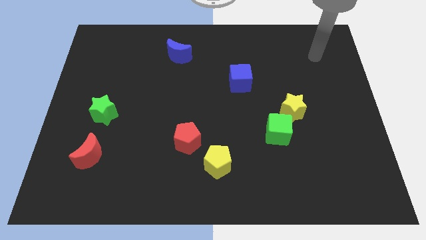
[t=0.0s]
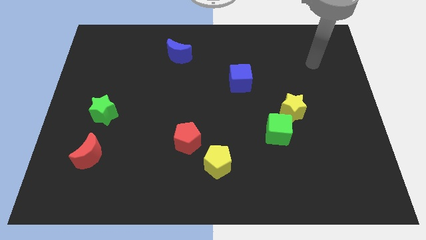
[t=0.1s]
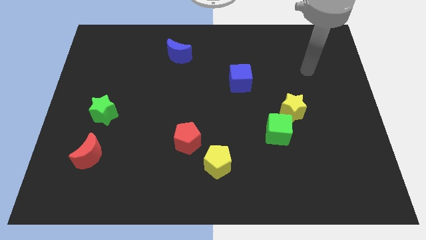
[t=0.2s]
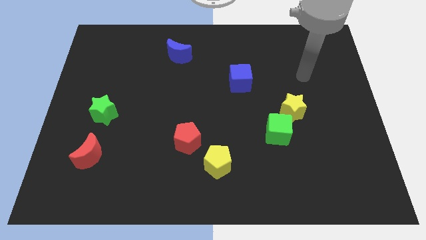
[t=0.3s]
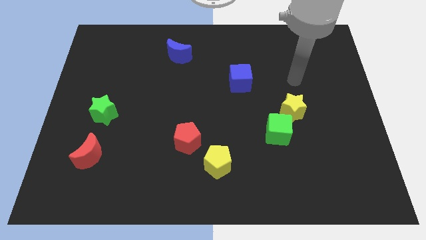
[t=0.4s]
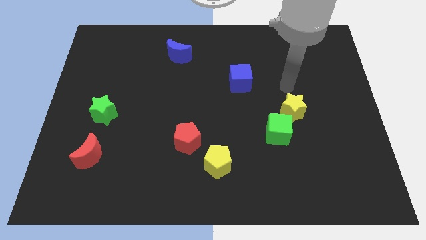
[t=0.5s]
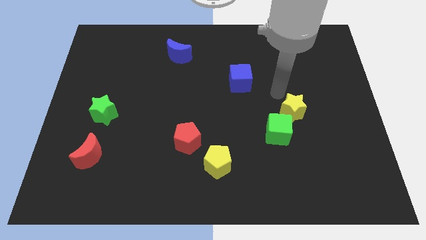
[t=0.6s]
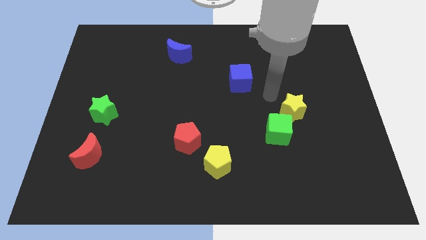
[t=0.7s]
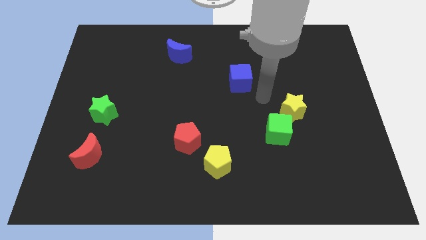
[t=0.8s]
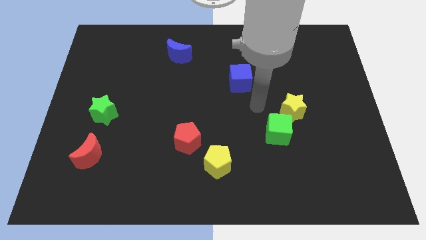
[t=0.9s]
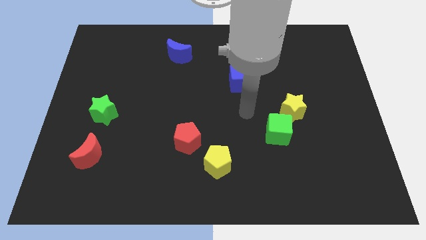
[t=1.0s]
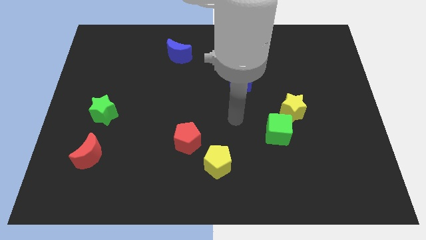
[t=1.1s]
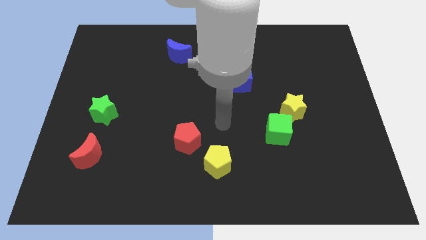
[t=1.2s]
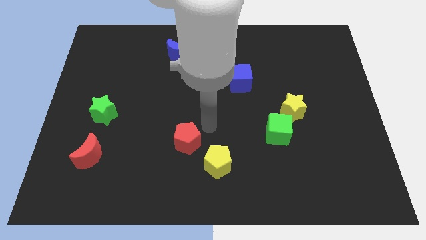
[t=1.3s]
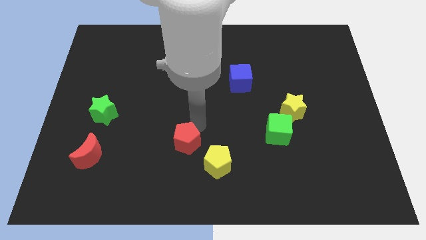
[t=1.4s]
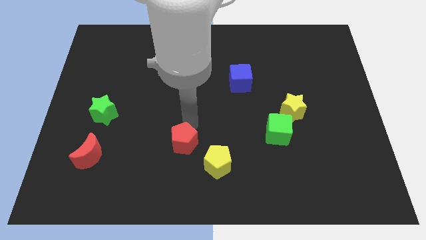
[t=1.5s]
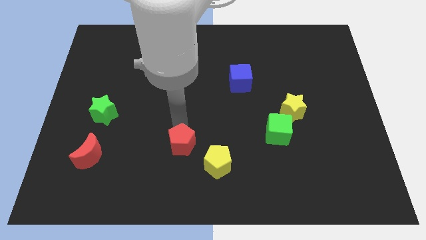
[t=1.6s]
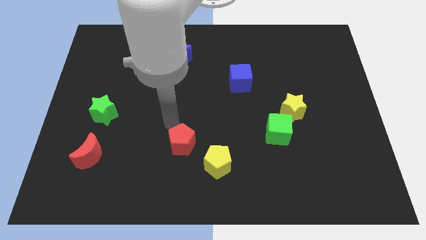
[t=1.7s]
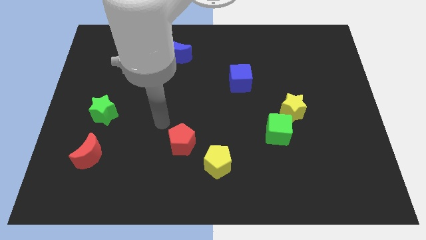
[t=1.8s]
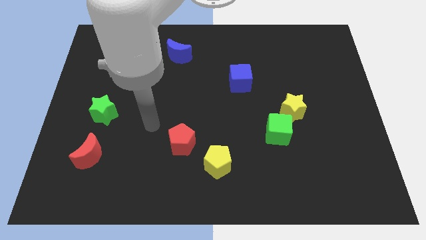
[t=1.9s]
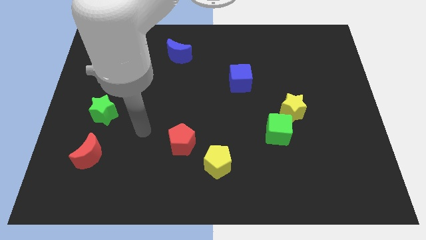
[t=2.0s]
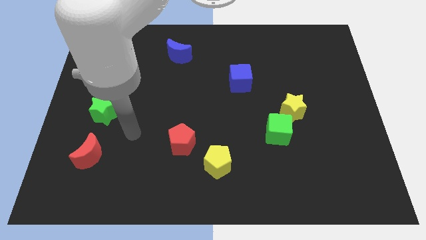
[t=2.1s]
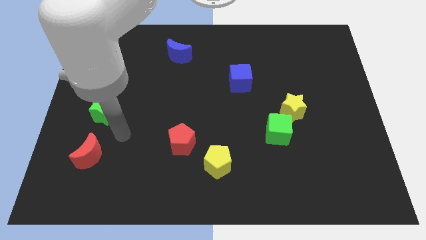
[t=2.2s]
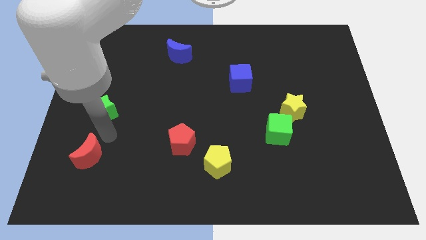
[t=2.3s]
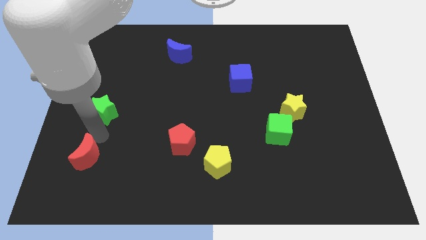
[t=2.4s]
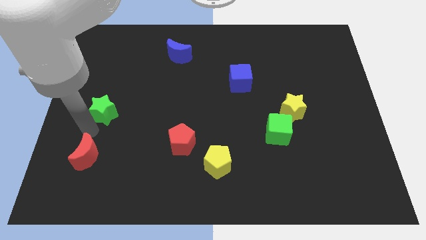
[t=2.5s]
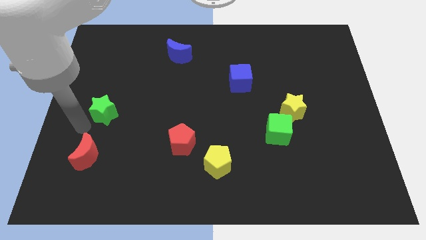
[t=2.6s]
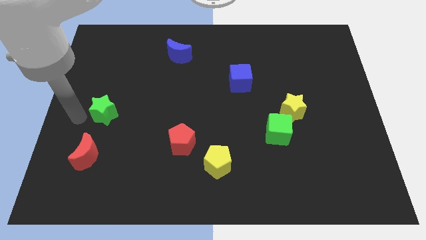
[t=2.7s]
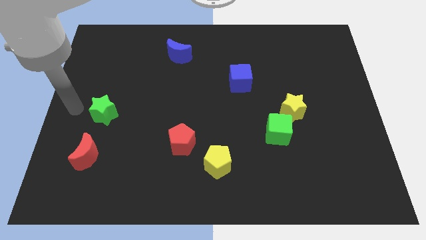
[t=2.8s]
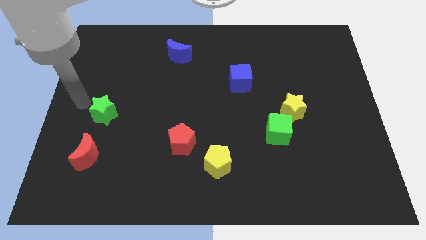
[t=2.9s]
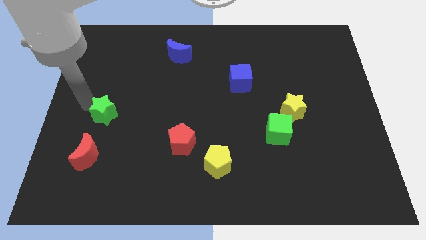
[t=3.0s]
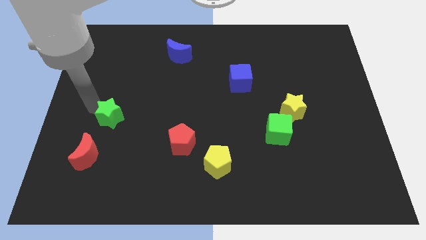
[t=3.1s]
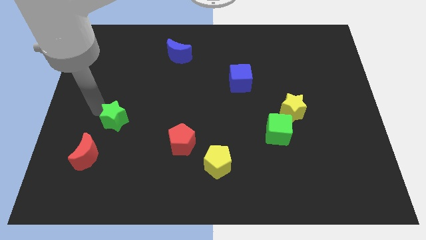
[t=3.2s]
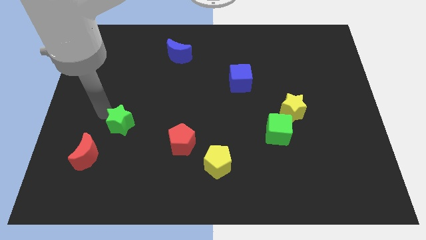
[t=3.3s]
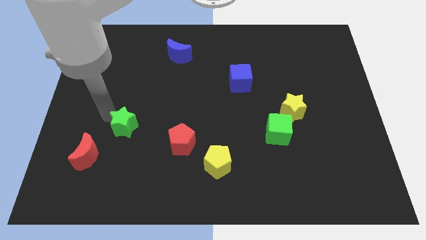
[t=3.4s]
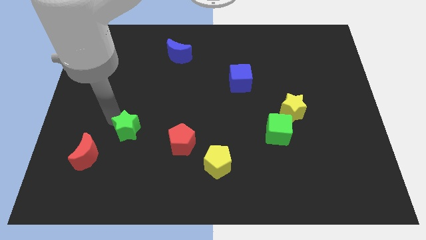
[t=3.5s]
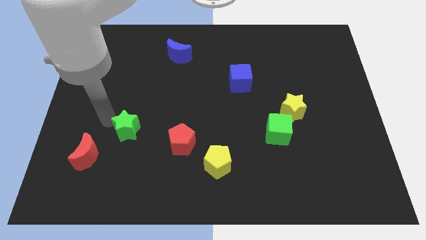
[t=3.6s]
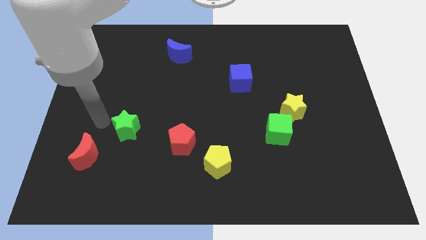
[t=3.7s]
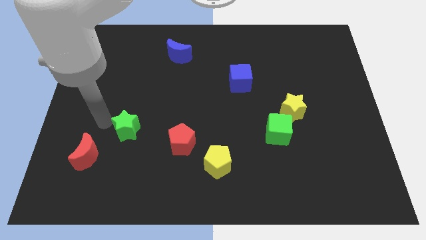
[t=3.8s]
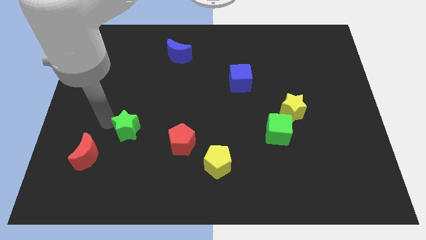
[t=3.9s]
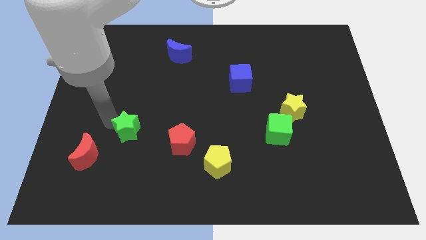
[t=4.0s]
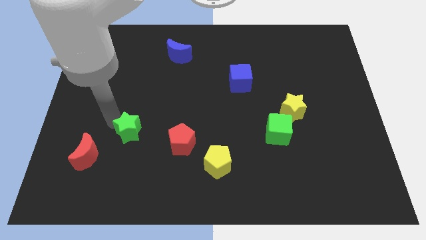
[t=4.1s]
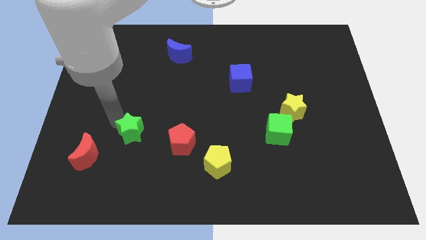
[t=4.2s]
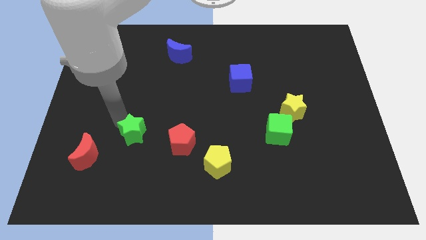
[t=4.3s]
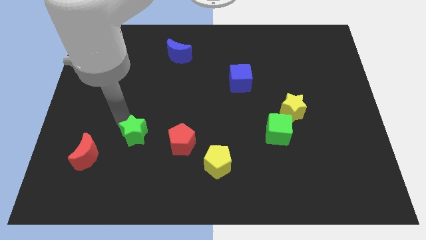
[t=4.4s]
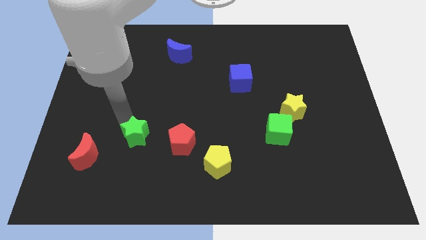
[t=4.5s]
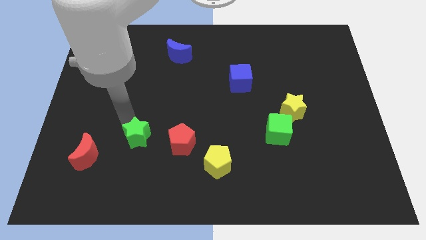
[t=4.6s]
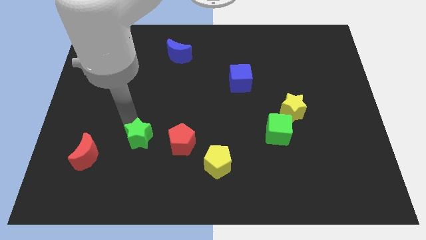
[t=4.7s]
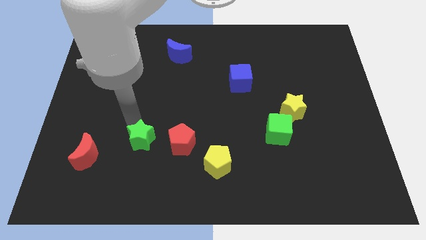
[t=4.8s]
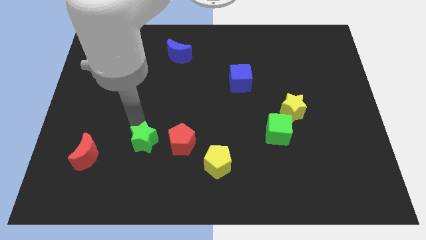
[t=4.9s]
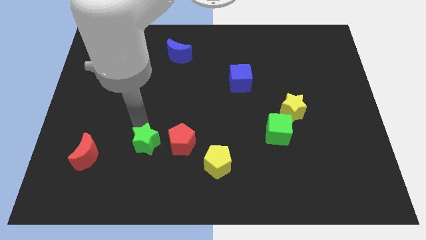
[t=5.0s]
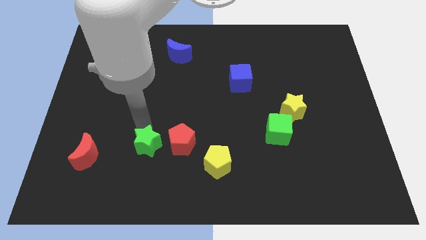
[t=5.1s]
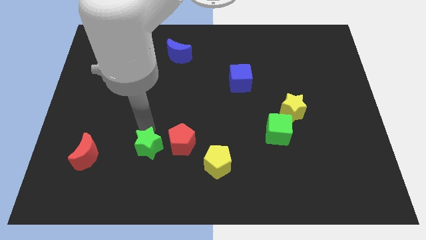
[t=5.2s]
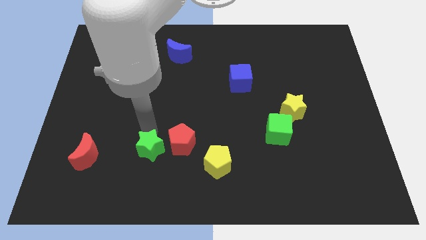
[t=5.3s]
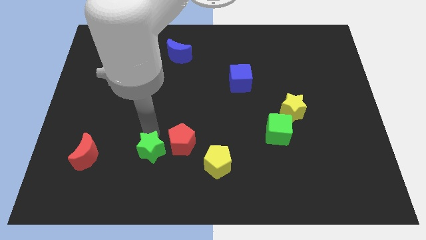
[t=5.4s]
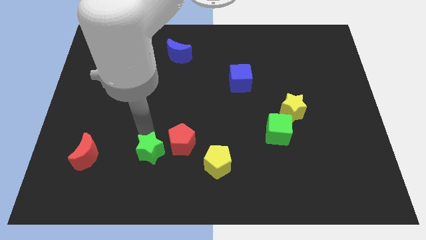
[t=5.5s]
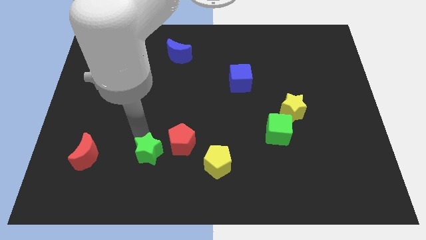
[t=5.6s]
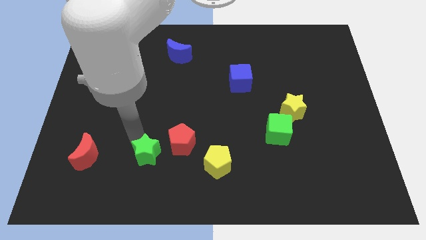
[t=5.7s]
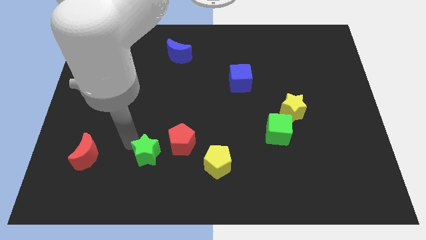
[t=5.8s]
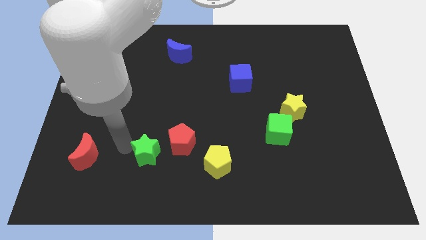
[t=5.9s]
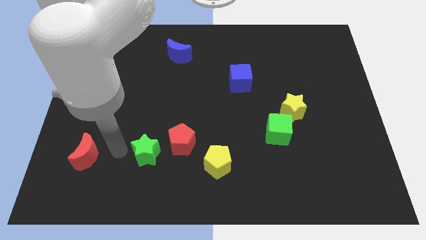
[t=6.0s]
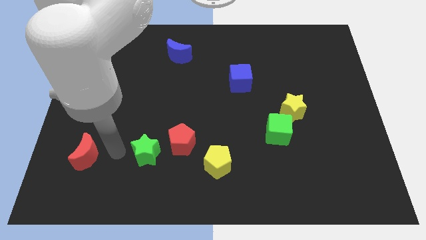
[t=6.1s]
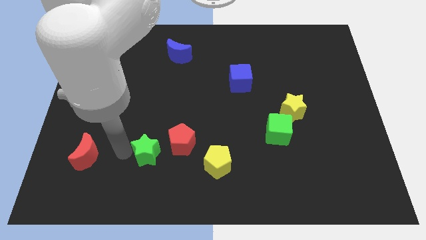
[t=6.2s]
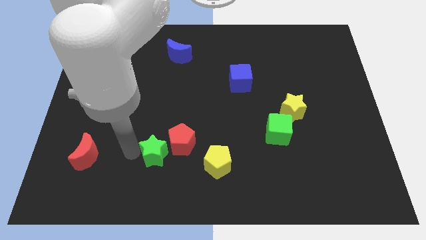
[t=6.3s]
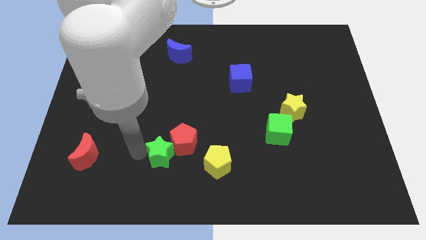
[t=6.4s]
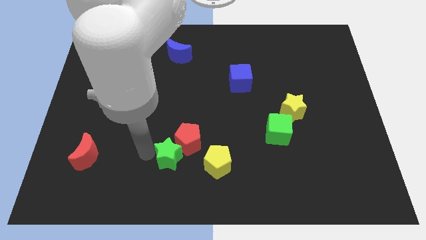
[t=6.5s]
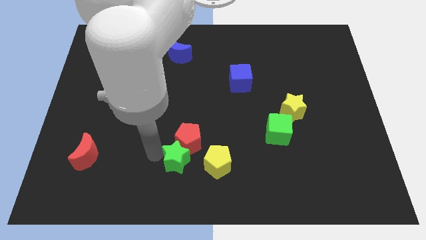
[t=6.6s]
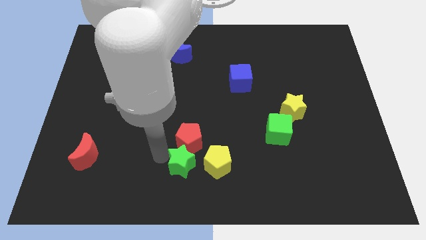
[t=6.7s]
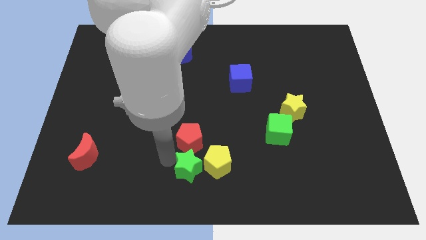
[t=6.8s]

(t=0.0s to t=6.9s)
move the green star next to the yellow pentagon
